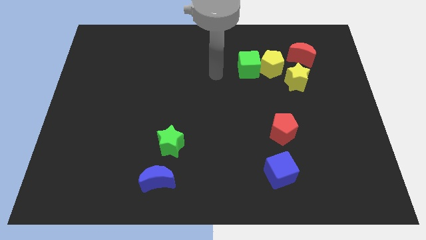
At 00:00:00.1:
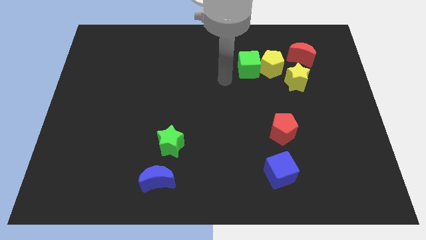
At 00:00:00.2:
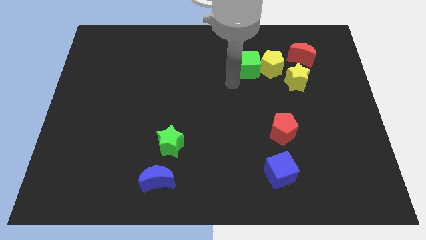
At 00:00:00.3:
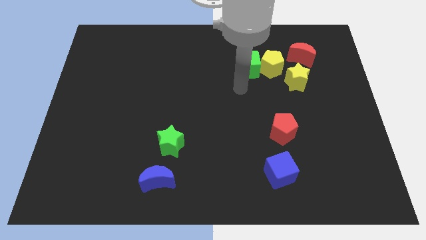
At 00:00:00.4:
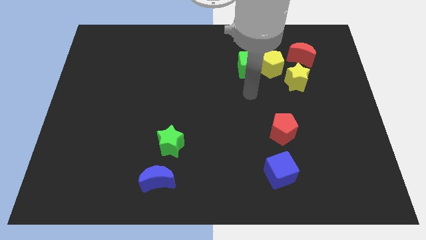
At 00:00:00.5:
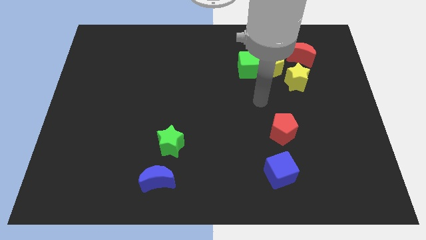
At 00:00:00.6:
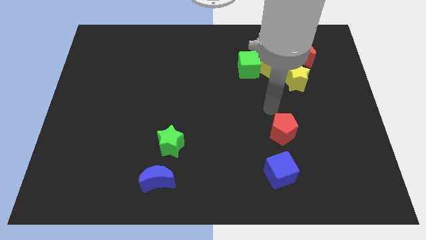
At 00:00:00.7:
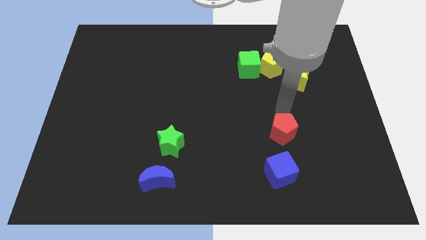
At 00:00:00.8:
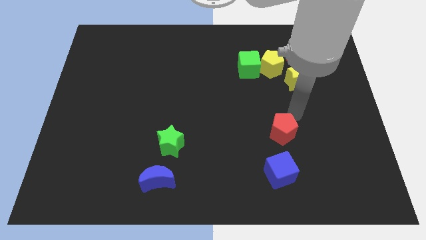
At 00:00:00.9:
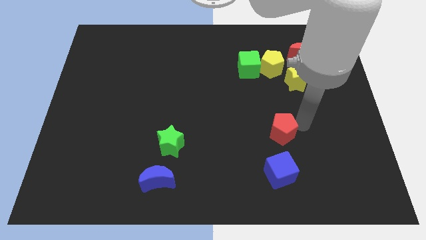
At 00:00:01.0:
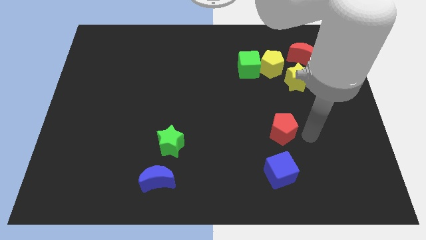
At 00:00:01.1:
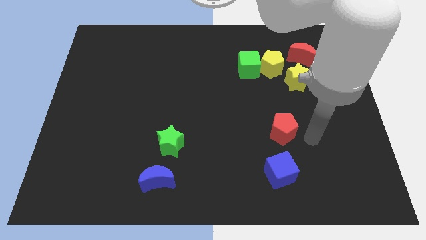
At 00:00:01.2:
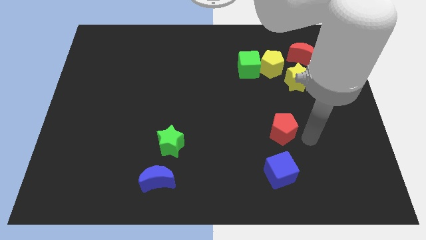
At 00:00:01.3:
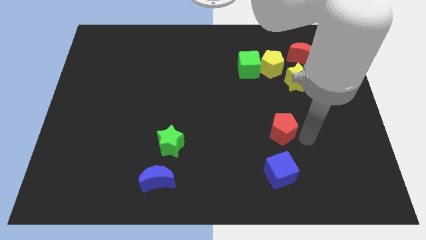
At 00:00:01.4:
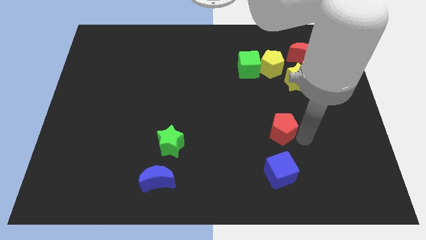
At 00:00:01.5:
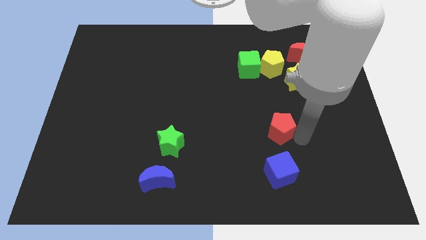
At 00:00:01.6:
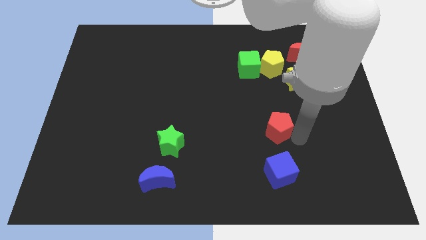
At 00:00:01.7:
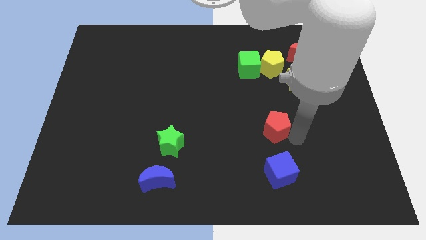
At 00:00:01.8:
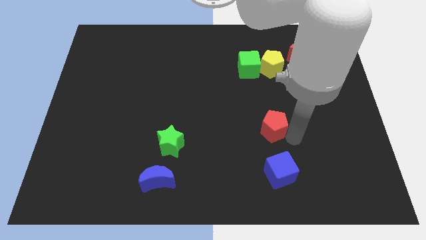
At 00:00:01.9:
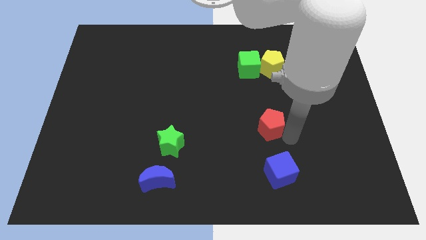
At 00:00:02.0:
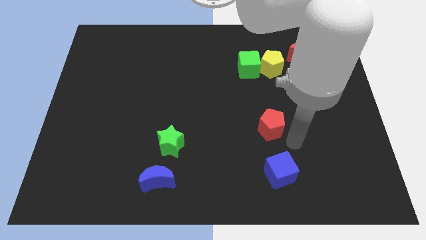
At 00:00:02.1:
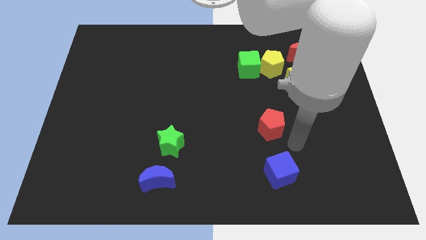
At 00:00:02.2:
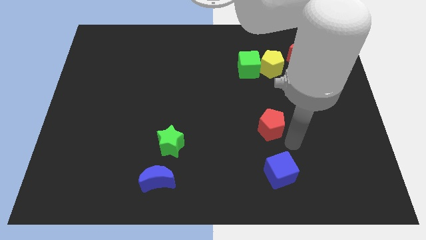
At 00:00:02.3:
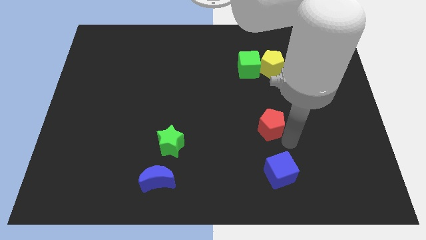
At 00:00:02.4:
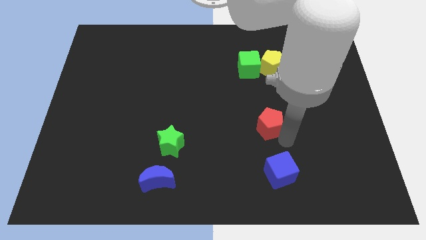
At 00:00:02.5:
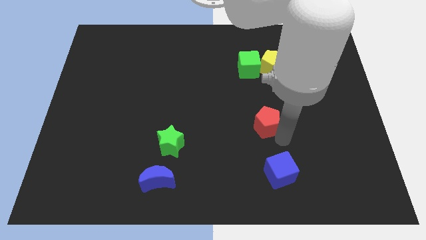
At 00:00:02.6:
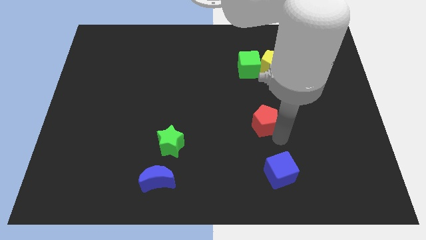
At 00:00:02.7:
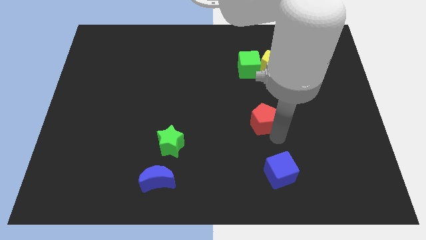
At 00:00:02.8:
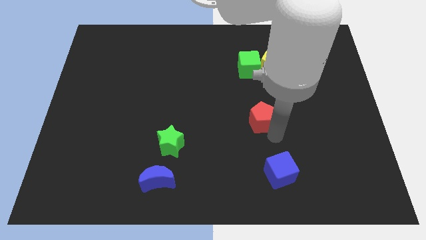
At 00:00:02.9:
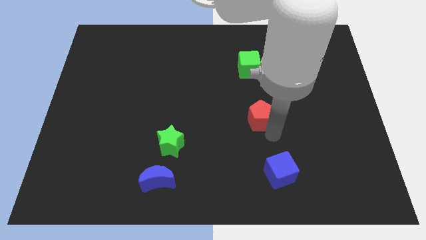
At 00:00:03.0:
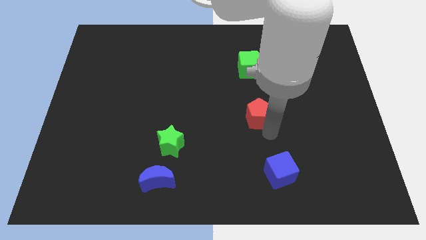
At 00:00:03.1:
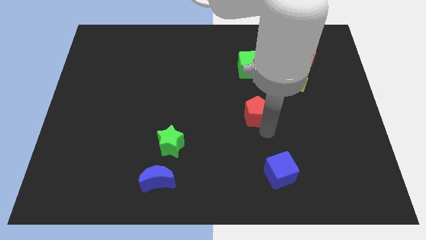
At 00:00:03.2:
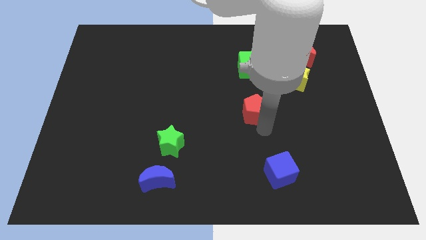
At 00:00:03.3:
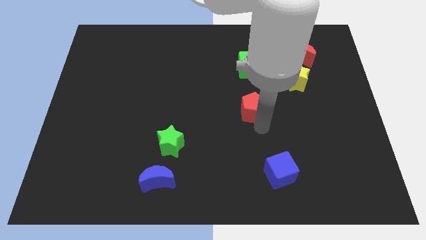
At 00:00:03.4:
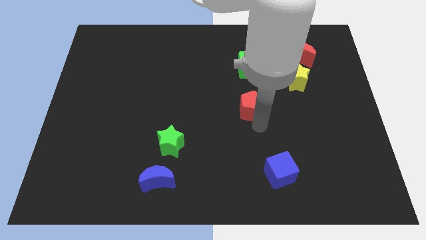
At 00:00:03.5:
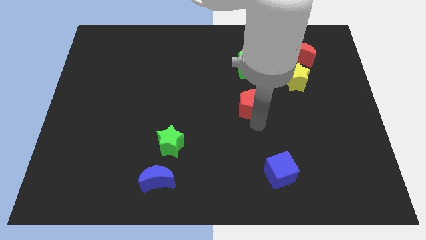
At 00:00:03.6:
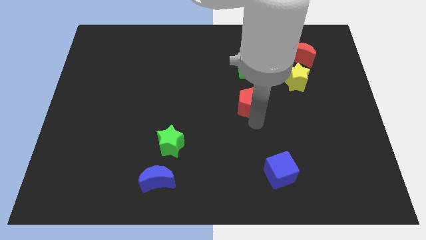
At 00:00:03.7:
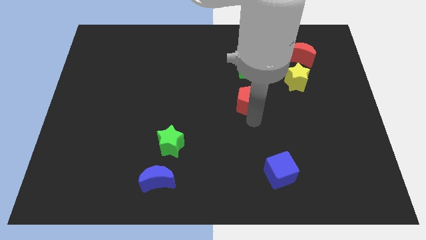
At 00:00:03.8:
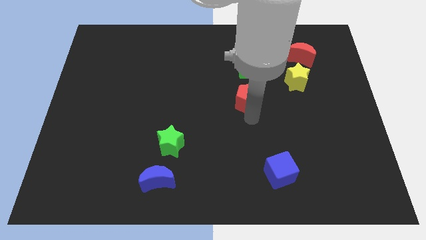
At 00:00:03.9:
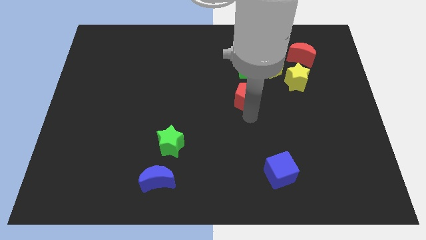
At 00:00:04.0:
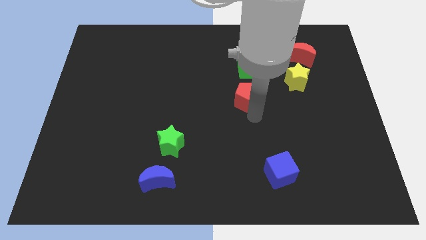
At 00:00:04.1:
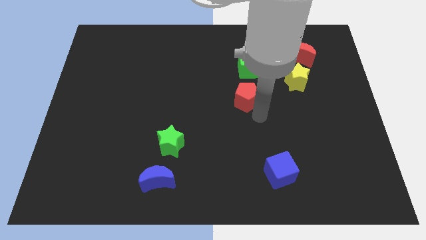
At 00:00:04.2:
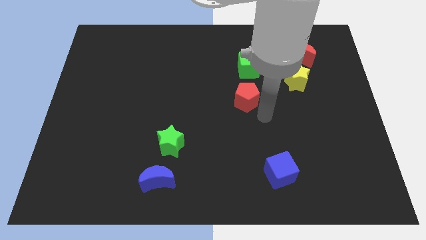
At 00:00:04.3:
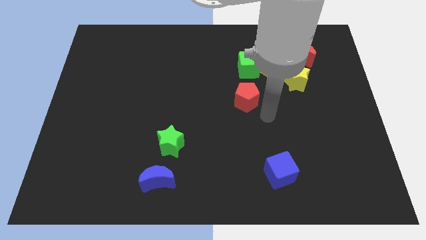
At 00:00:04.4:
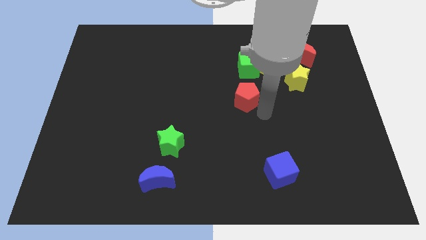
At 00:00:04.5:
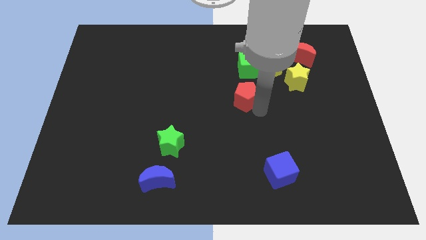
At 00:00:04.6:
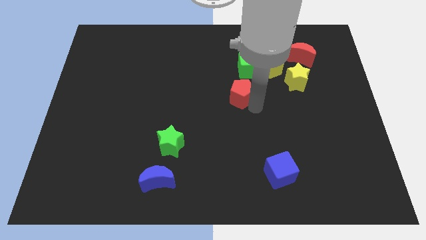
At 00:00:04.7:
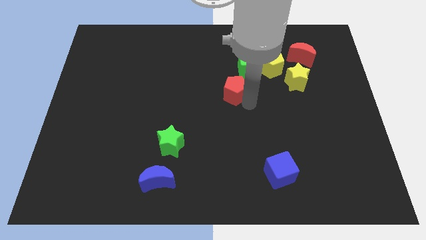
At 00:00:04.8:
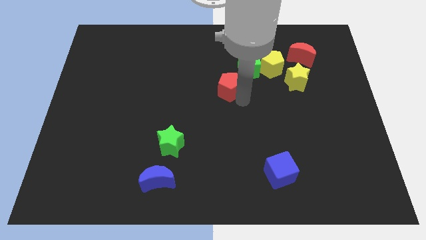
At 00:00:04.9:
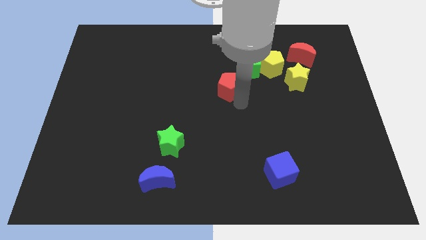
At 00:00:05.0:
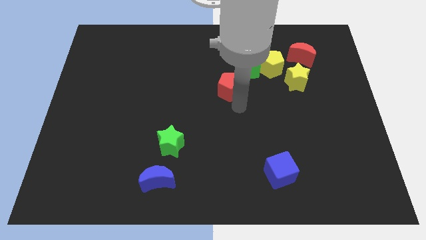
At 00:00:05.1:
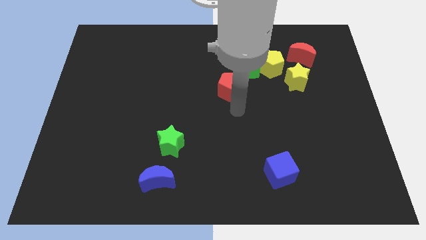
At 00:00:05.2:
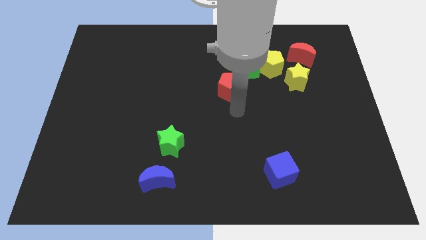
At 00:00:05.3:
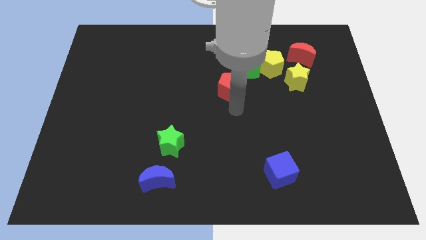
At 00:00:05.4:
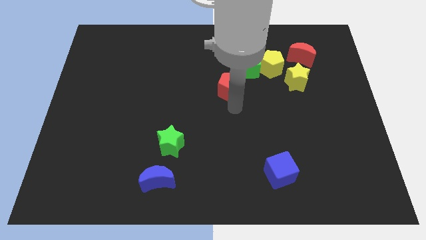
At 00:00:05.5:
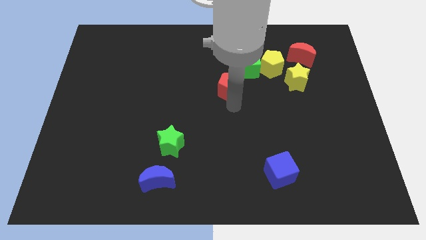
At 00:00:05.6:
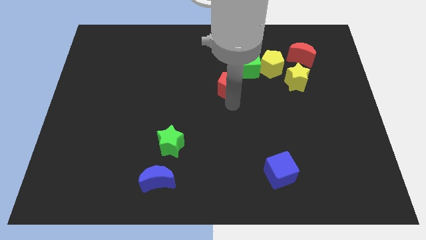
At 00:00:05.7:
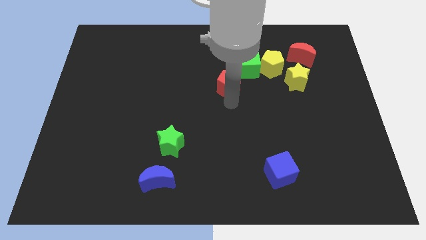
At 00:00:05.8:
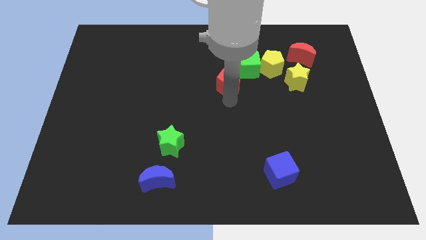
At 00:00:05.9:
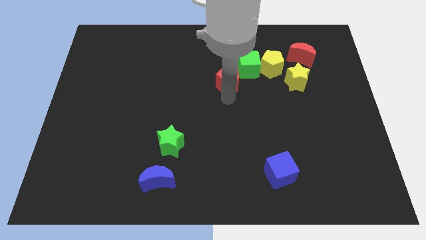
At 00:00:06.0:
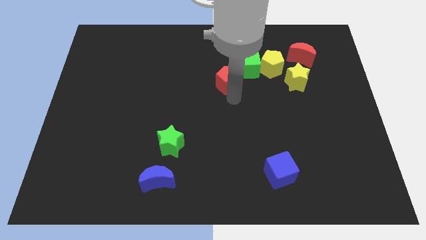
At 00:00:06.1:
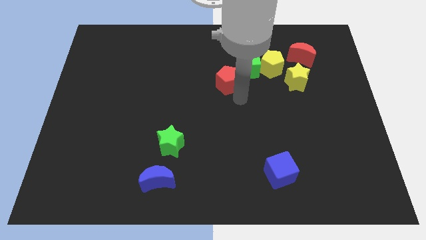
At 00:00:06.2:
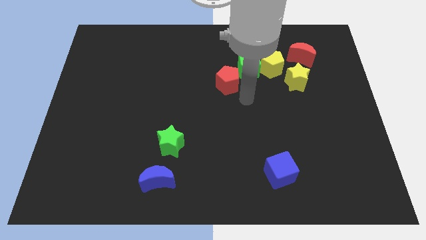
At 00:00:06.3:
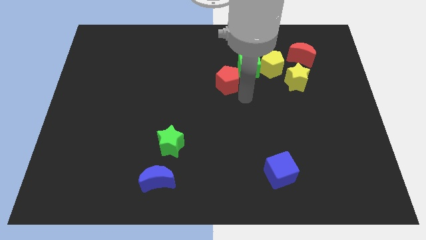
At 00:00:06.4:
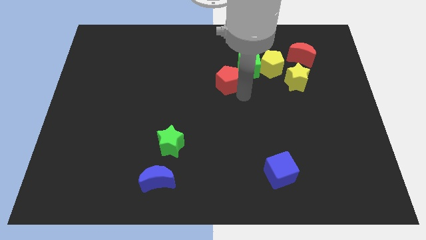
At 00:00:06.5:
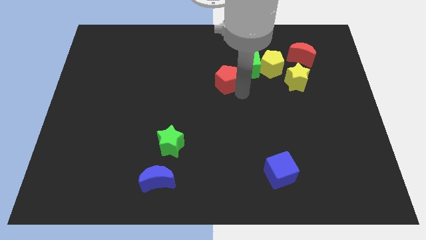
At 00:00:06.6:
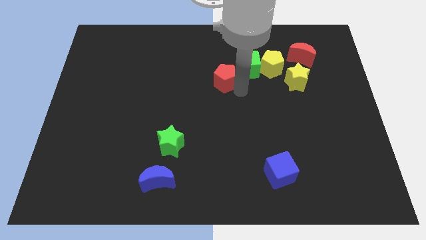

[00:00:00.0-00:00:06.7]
slide the red pentagon just left of the green cube

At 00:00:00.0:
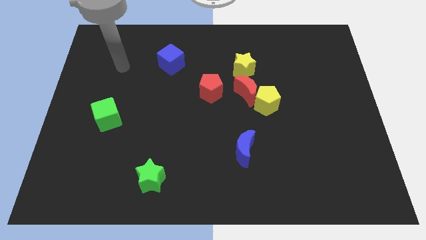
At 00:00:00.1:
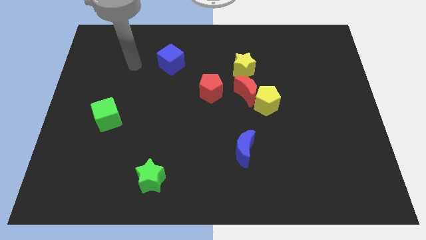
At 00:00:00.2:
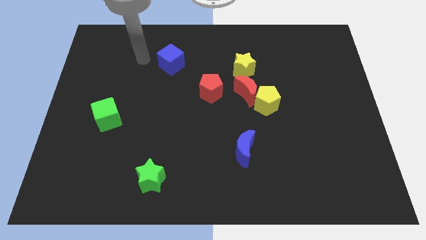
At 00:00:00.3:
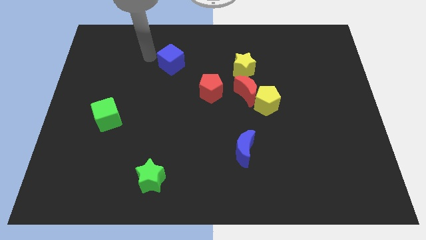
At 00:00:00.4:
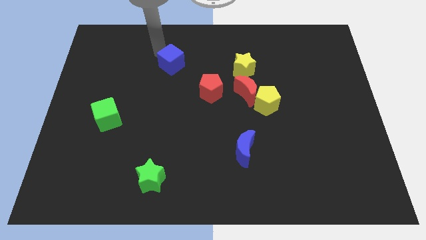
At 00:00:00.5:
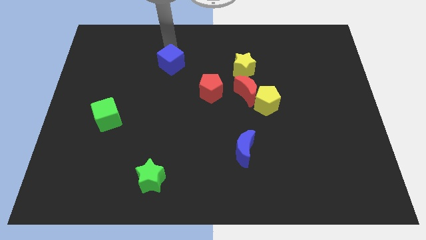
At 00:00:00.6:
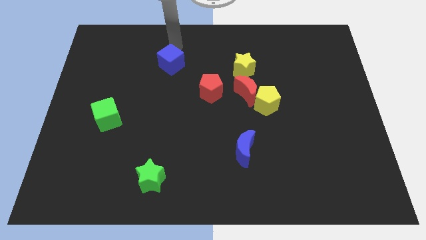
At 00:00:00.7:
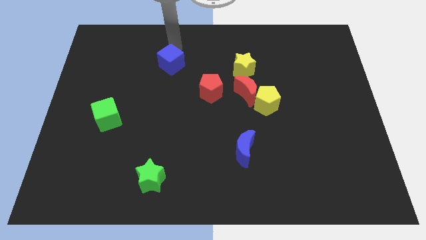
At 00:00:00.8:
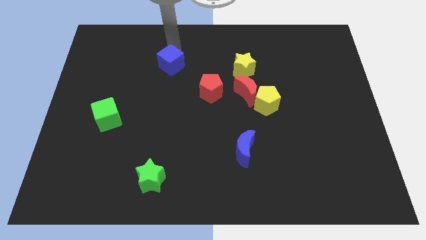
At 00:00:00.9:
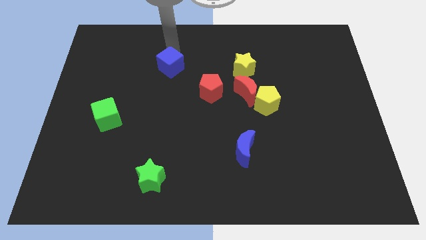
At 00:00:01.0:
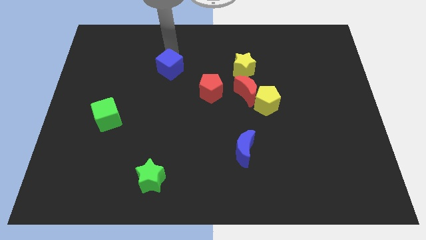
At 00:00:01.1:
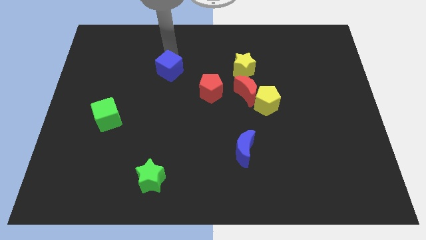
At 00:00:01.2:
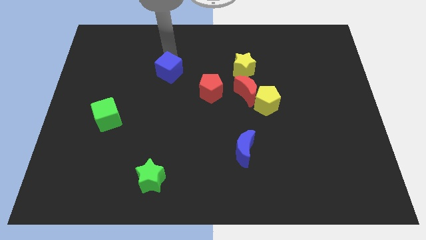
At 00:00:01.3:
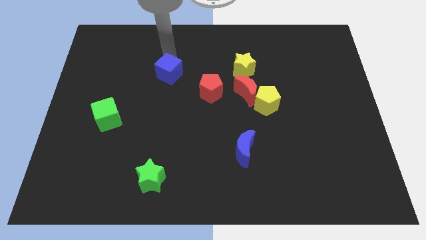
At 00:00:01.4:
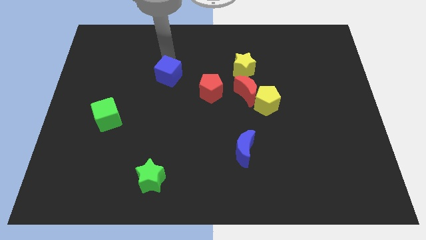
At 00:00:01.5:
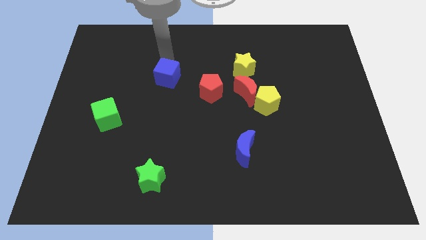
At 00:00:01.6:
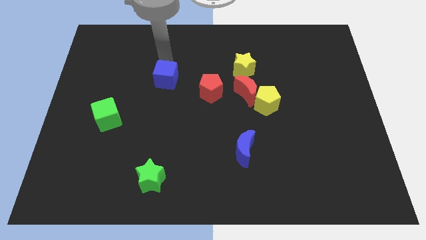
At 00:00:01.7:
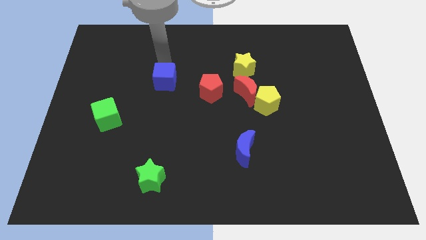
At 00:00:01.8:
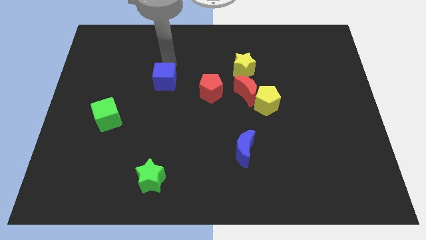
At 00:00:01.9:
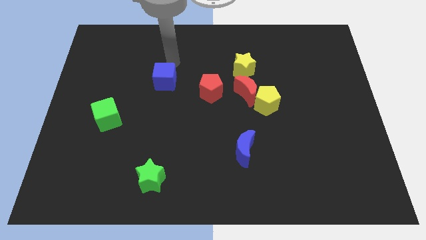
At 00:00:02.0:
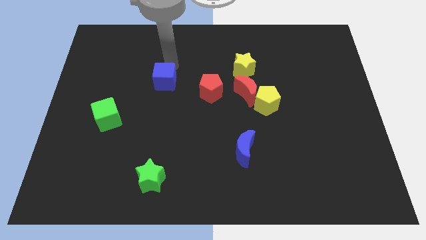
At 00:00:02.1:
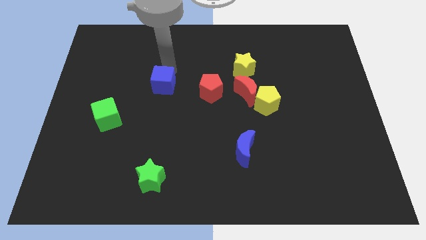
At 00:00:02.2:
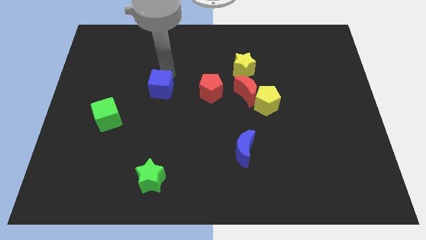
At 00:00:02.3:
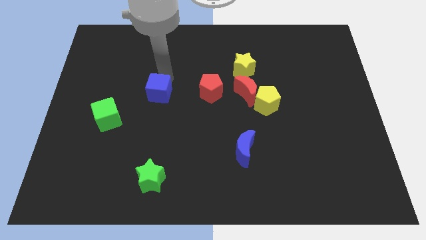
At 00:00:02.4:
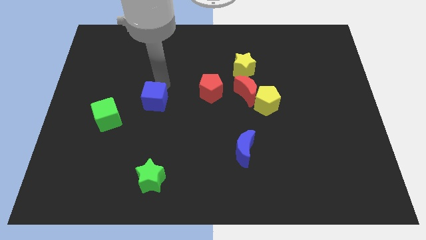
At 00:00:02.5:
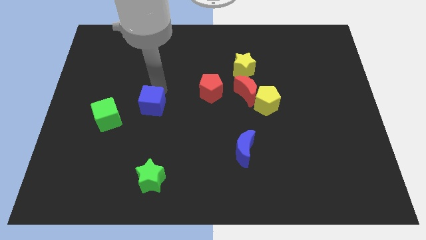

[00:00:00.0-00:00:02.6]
push the blue cube to the right of the green cube
